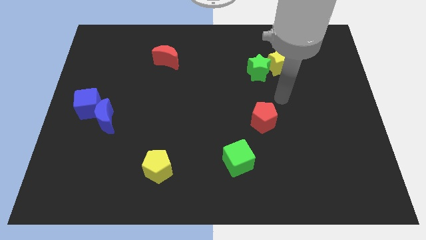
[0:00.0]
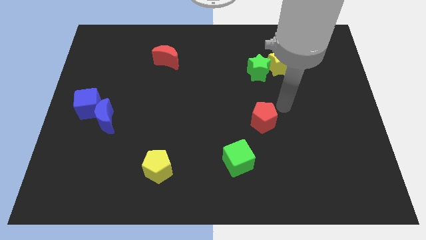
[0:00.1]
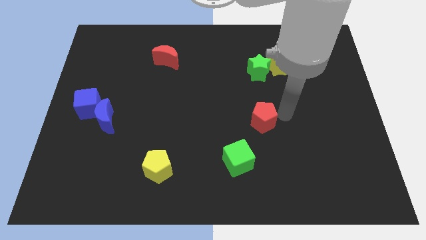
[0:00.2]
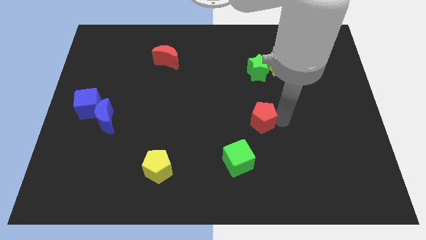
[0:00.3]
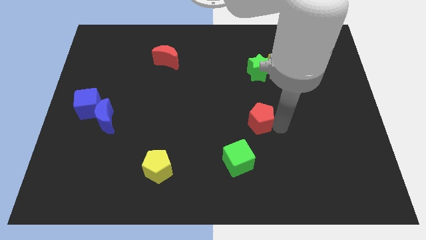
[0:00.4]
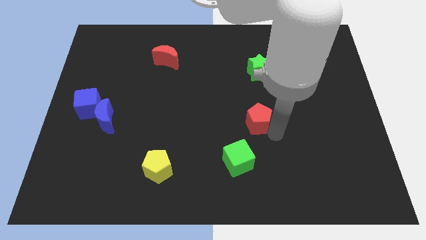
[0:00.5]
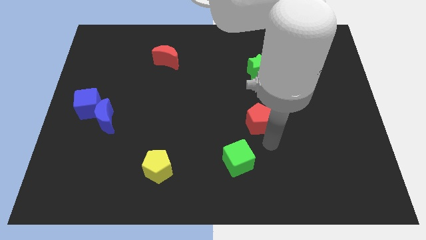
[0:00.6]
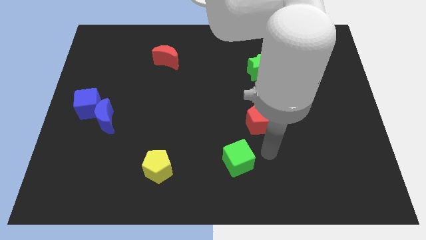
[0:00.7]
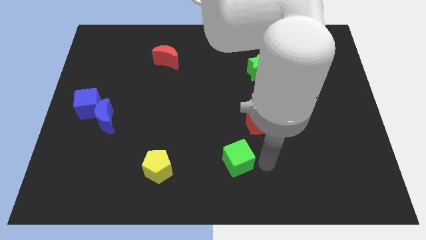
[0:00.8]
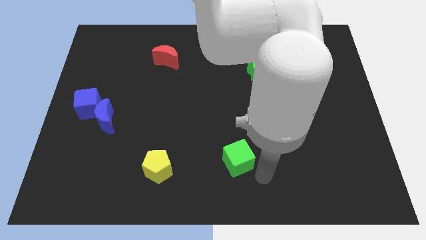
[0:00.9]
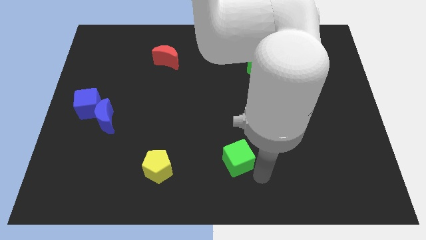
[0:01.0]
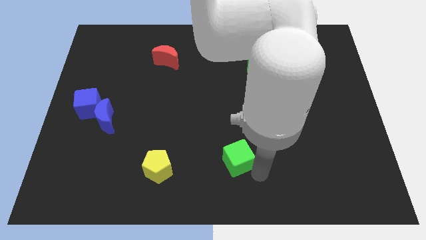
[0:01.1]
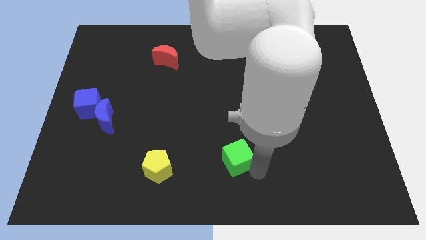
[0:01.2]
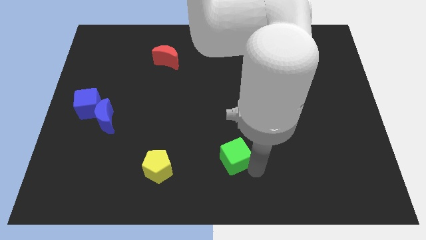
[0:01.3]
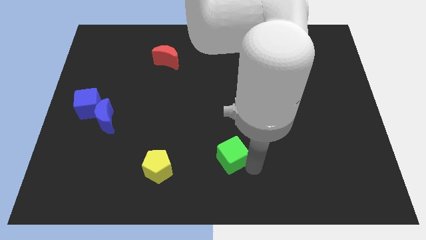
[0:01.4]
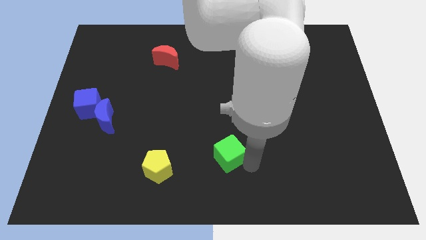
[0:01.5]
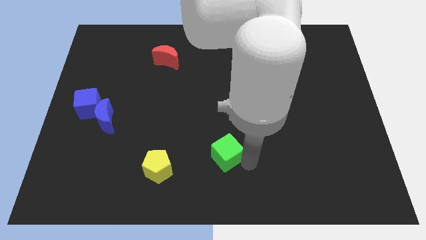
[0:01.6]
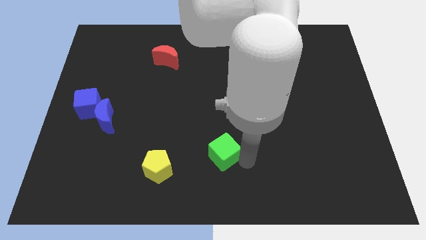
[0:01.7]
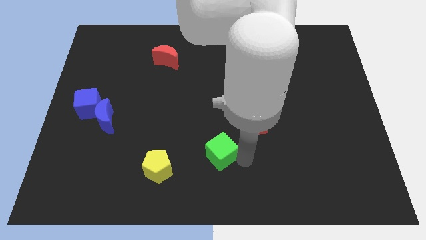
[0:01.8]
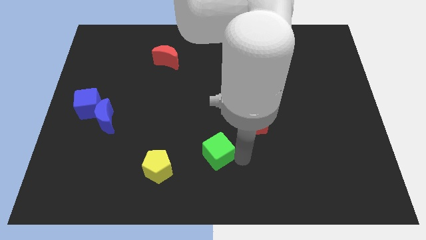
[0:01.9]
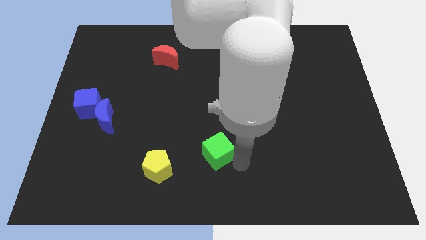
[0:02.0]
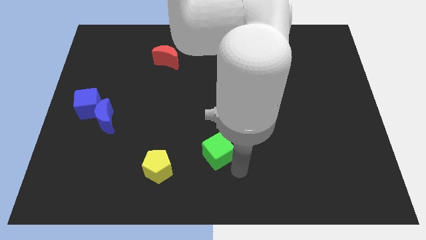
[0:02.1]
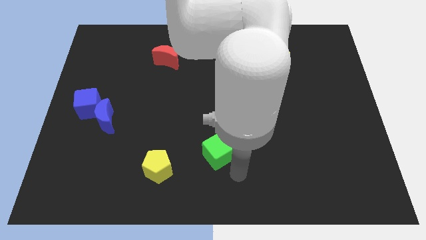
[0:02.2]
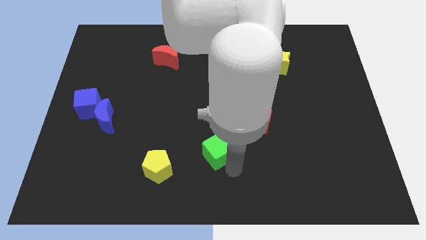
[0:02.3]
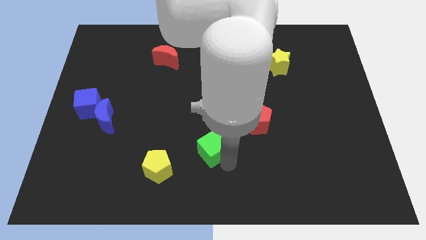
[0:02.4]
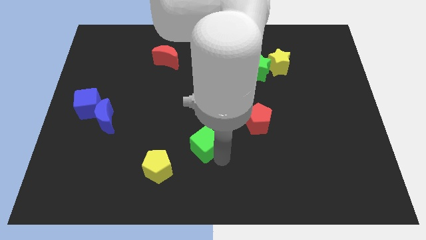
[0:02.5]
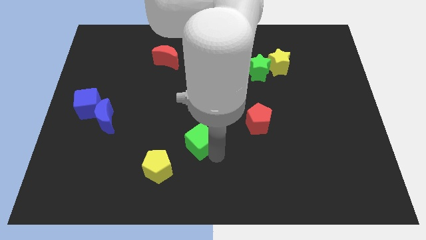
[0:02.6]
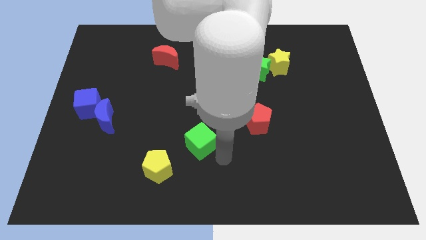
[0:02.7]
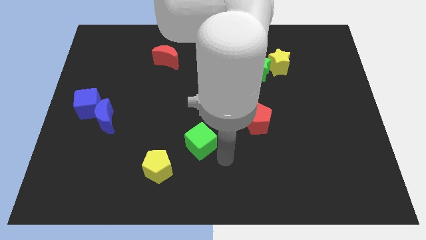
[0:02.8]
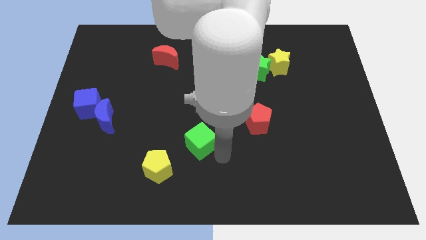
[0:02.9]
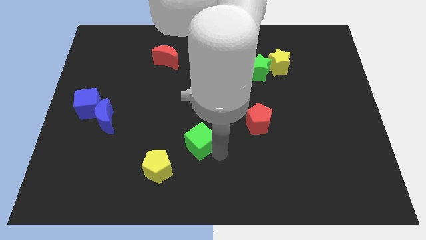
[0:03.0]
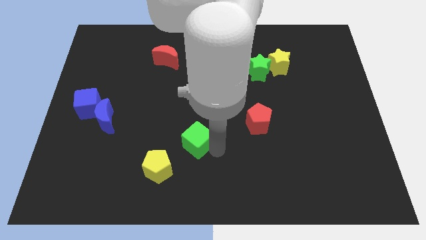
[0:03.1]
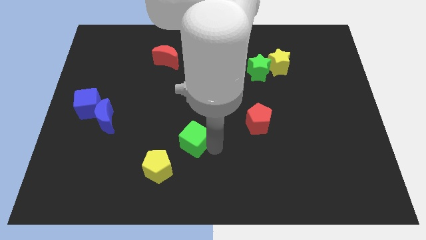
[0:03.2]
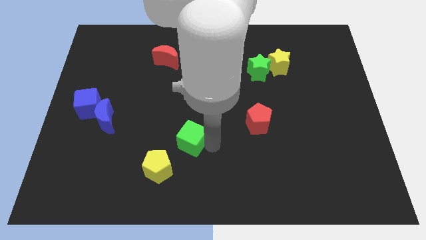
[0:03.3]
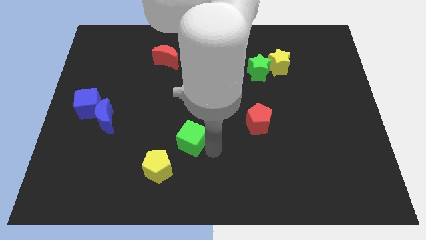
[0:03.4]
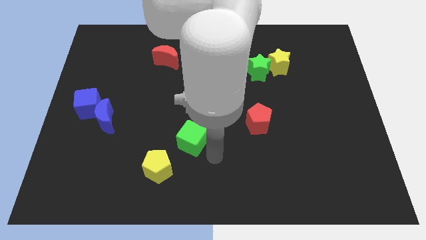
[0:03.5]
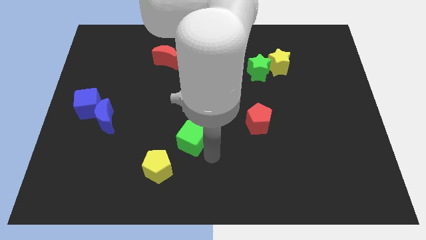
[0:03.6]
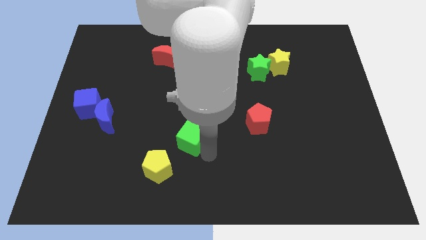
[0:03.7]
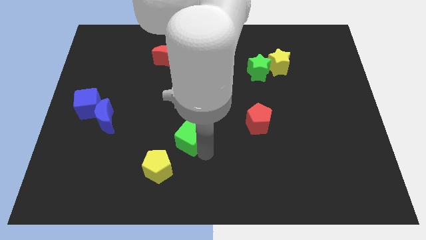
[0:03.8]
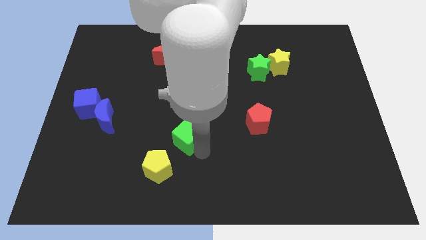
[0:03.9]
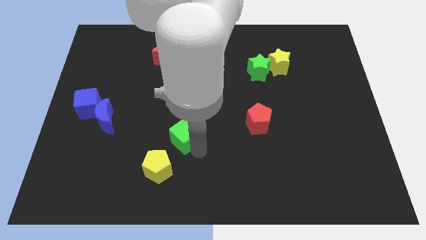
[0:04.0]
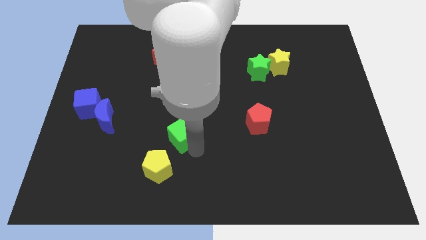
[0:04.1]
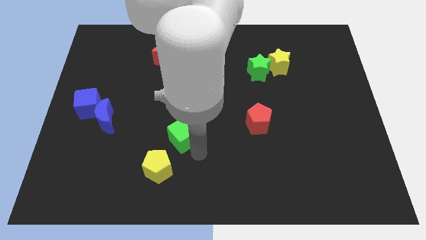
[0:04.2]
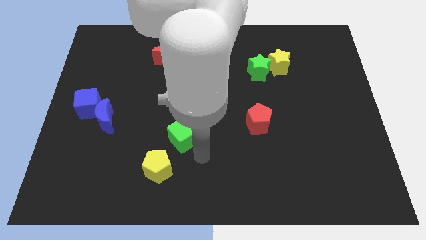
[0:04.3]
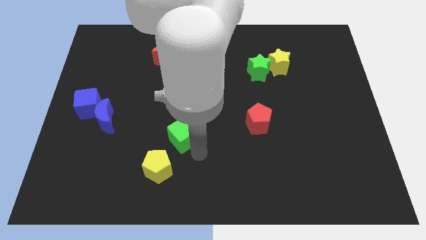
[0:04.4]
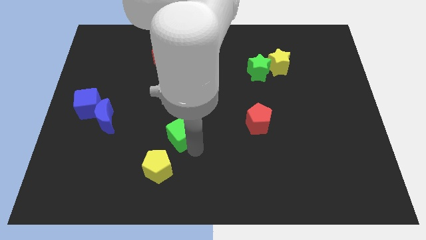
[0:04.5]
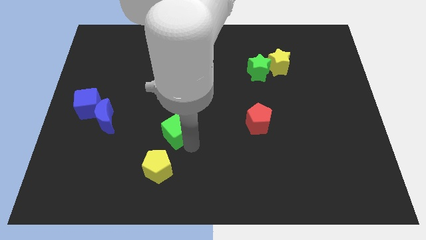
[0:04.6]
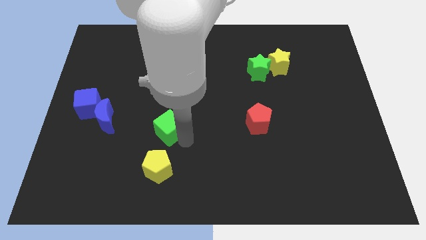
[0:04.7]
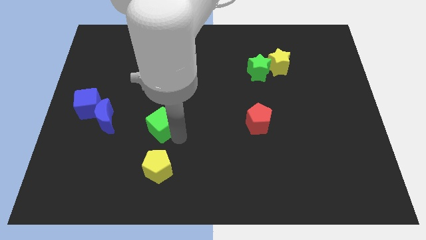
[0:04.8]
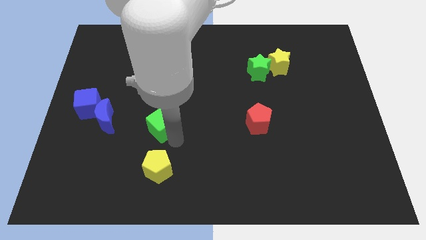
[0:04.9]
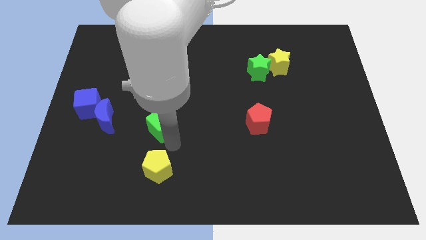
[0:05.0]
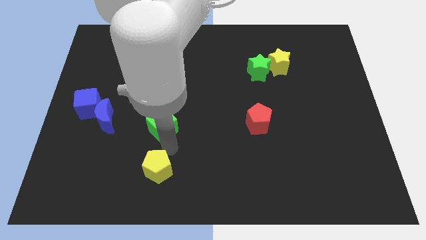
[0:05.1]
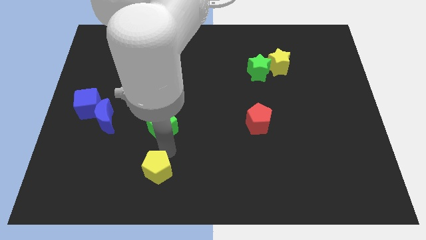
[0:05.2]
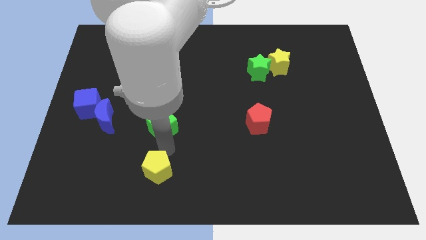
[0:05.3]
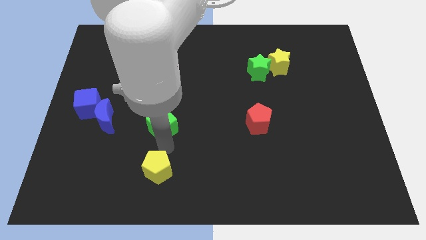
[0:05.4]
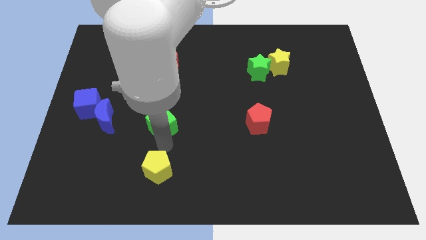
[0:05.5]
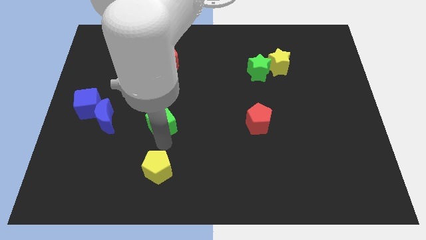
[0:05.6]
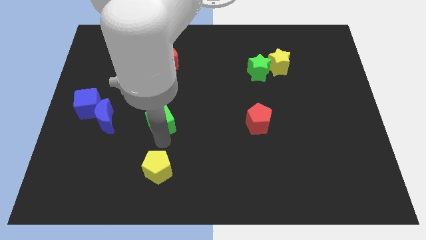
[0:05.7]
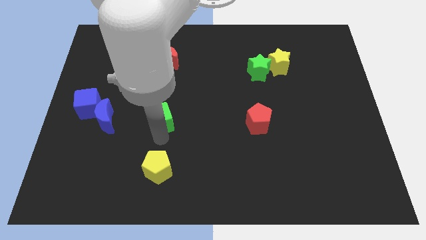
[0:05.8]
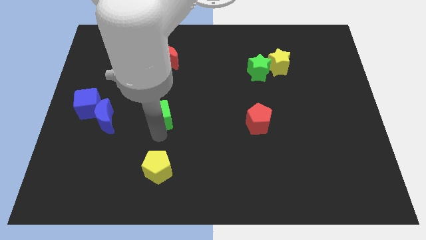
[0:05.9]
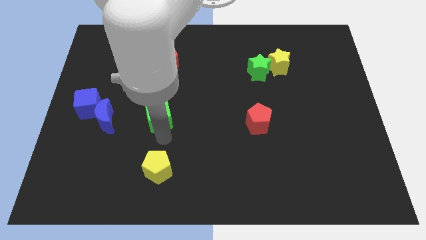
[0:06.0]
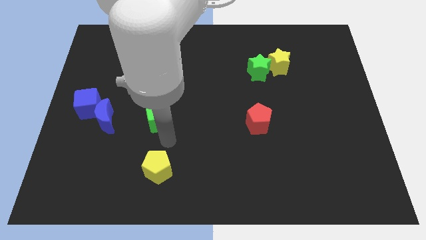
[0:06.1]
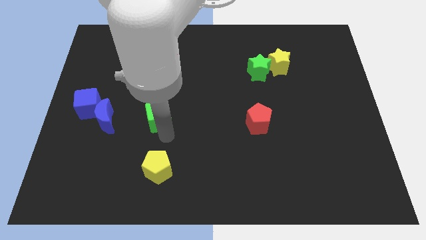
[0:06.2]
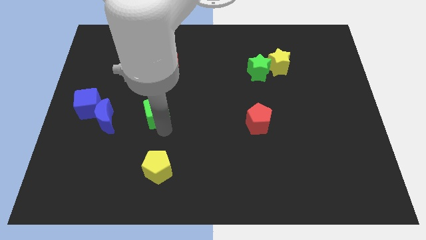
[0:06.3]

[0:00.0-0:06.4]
push the green cube diagonally upwards and to the left

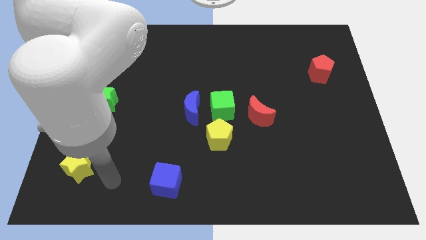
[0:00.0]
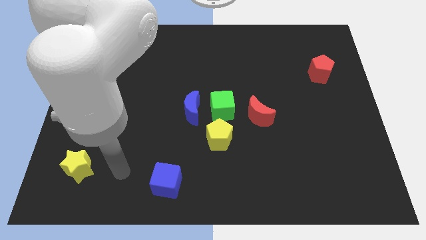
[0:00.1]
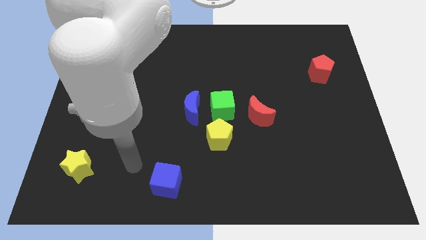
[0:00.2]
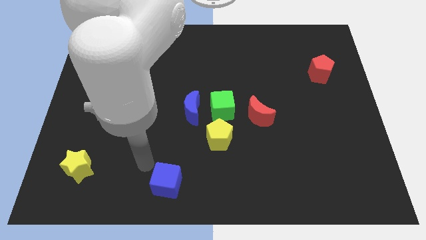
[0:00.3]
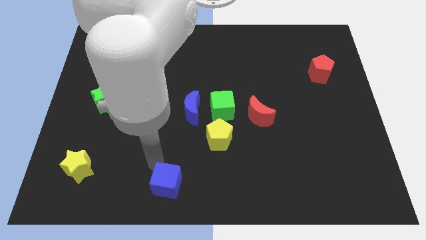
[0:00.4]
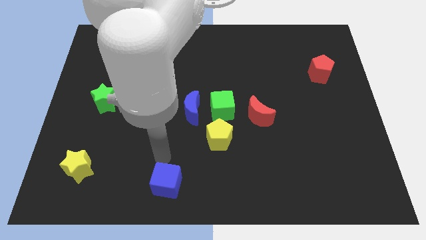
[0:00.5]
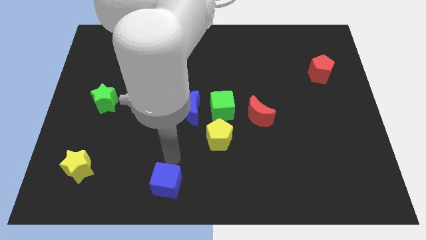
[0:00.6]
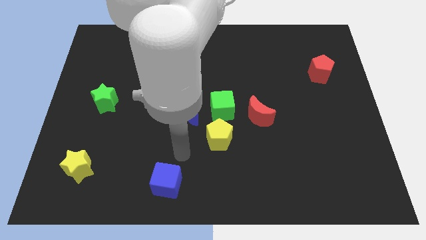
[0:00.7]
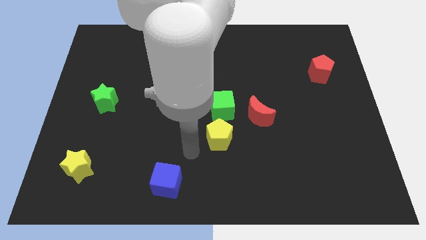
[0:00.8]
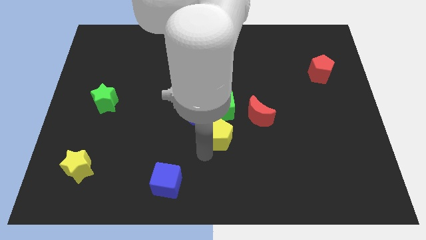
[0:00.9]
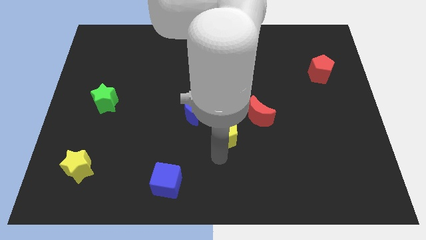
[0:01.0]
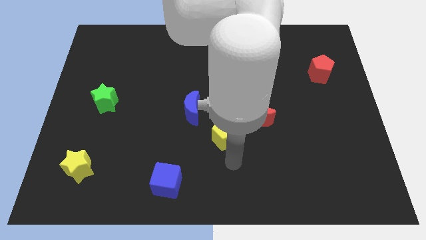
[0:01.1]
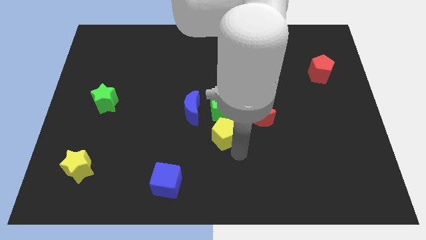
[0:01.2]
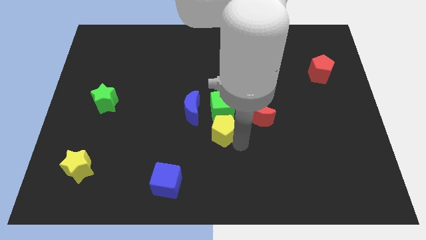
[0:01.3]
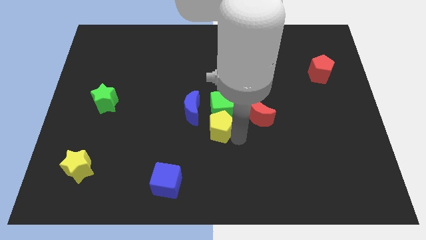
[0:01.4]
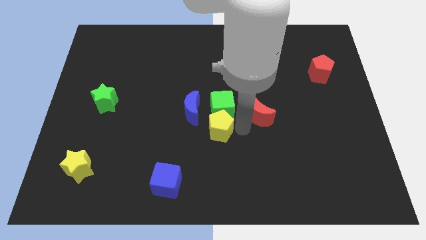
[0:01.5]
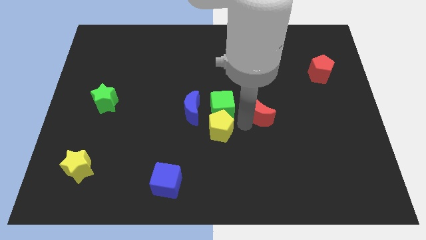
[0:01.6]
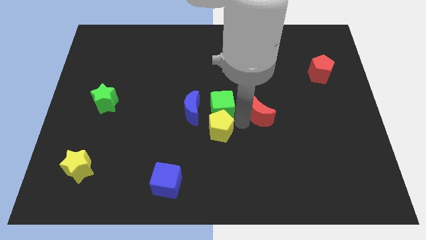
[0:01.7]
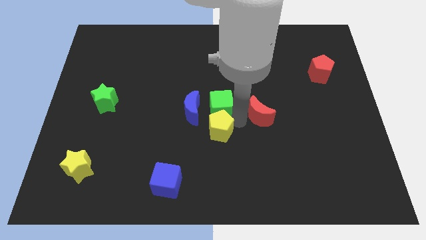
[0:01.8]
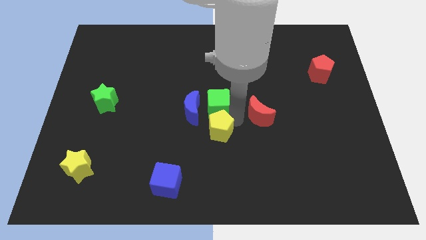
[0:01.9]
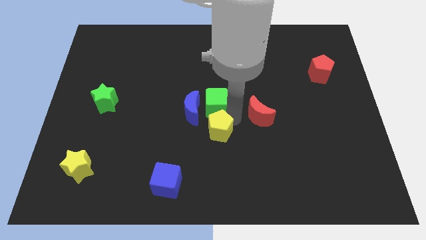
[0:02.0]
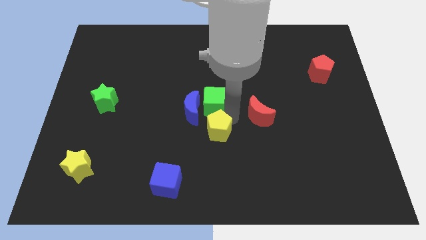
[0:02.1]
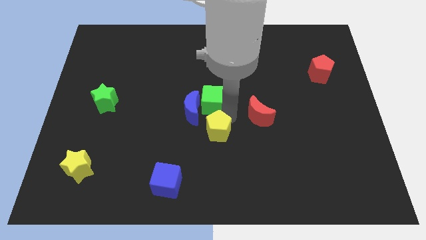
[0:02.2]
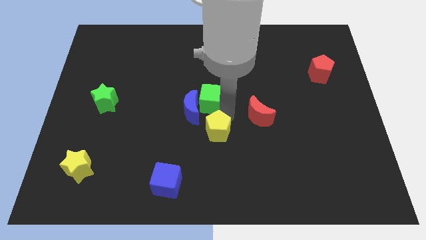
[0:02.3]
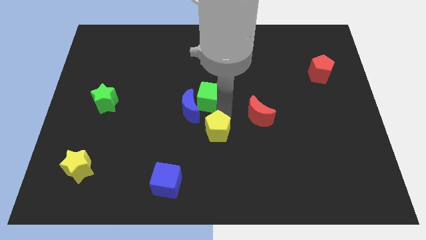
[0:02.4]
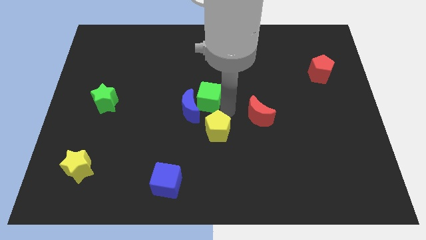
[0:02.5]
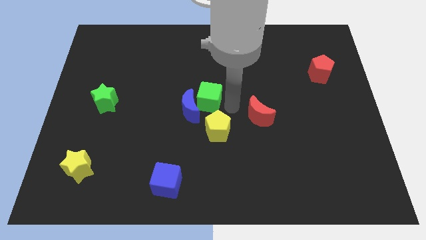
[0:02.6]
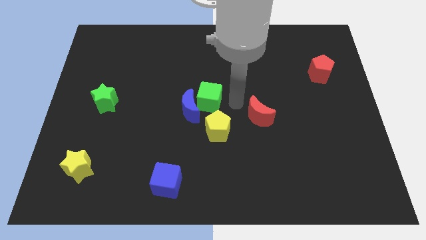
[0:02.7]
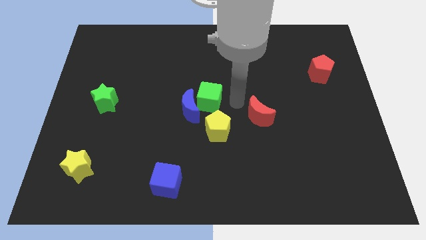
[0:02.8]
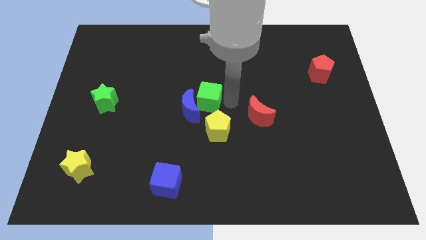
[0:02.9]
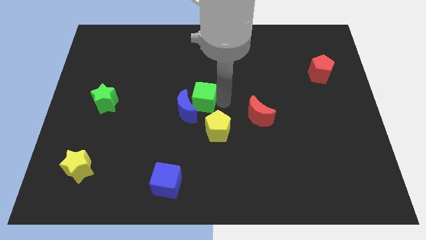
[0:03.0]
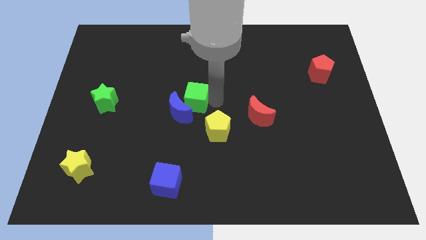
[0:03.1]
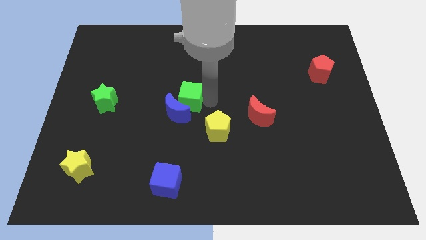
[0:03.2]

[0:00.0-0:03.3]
move the green cube to the left a little
